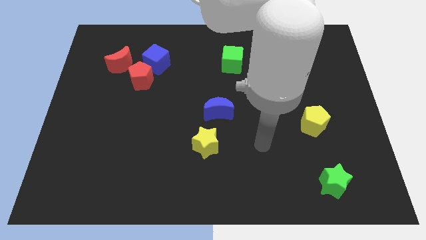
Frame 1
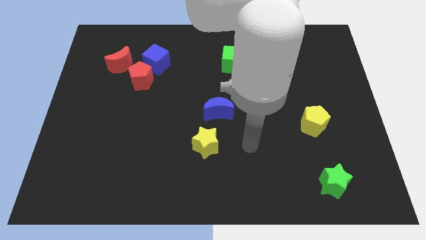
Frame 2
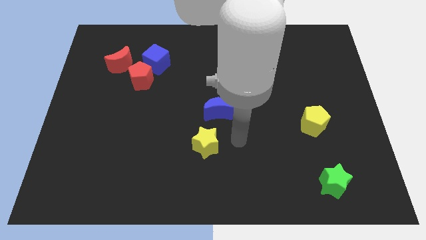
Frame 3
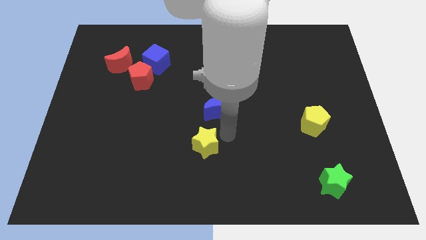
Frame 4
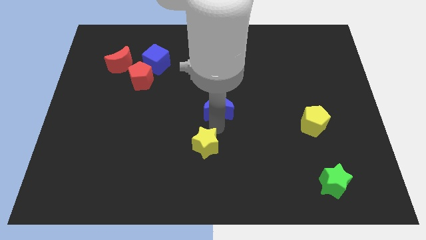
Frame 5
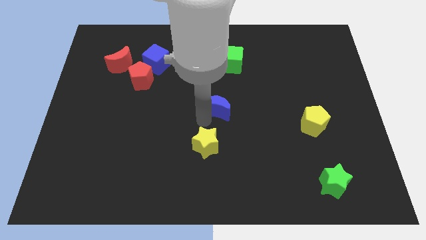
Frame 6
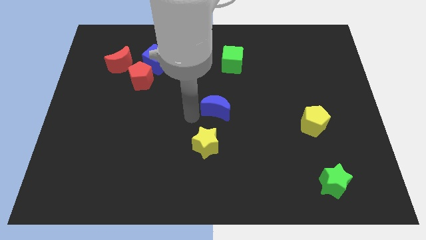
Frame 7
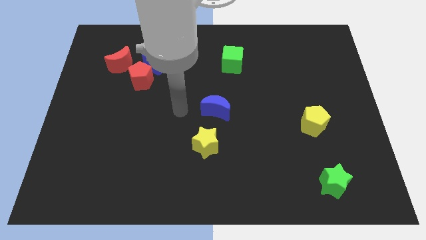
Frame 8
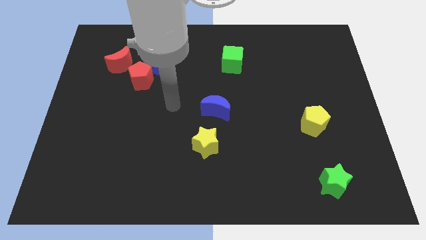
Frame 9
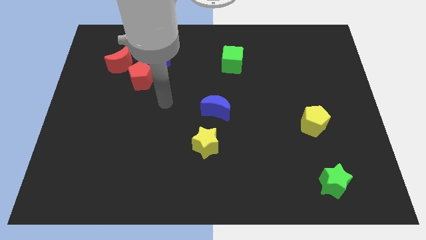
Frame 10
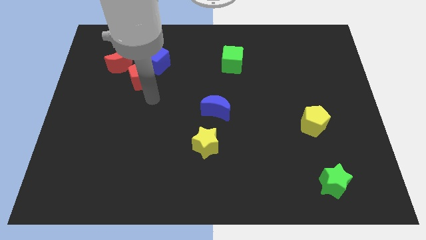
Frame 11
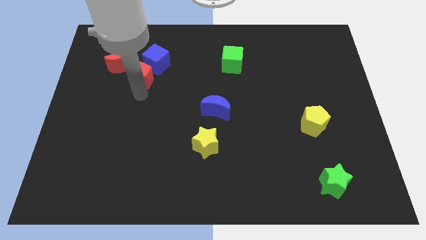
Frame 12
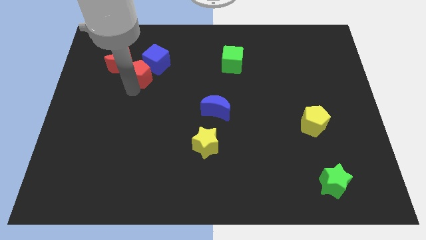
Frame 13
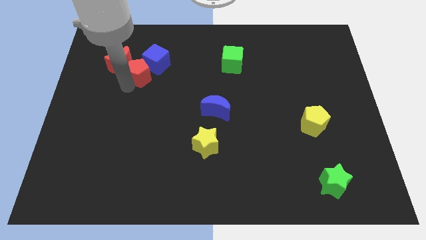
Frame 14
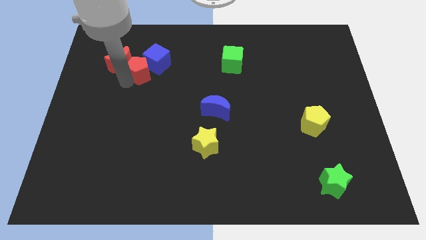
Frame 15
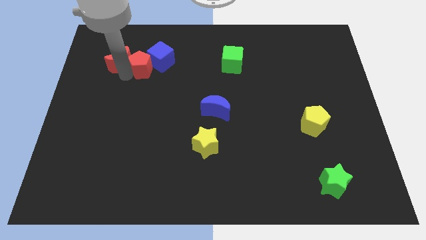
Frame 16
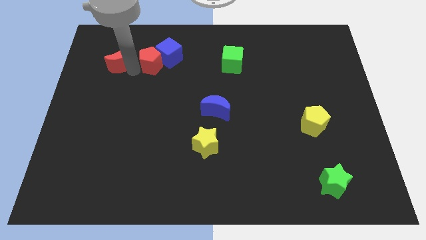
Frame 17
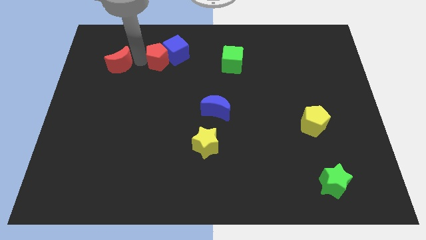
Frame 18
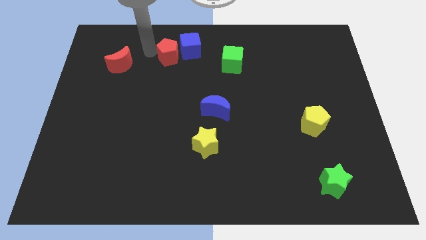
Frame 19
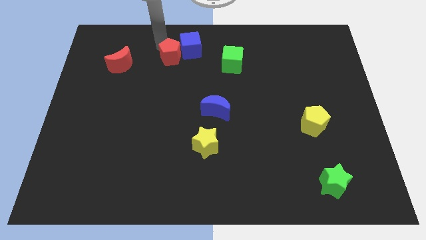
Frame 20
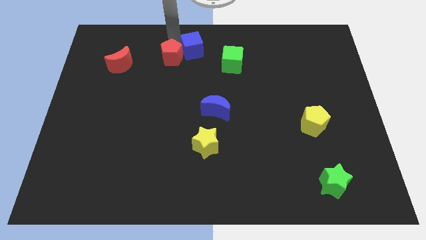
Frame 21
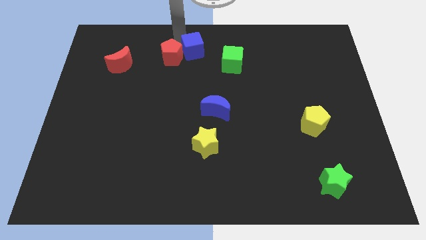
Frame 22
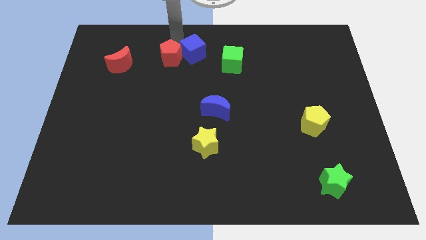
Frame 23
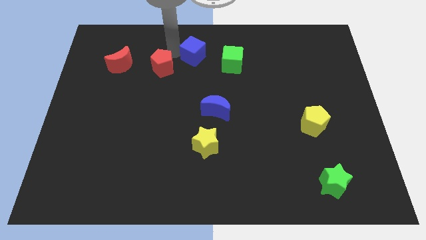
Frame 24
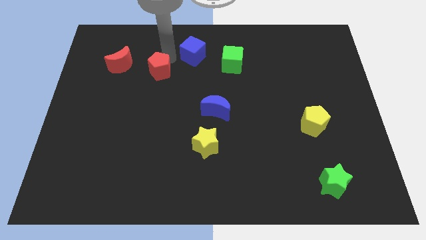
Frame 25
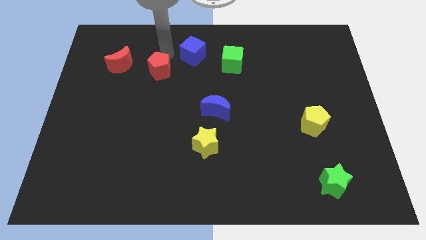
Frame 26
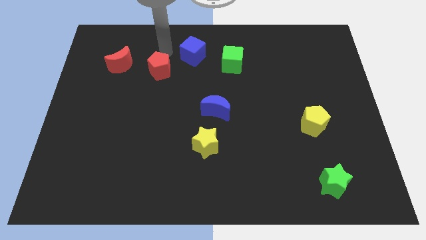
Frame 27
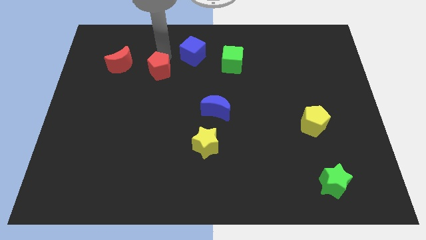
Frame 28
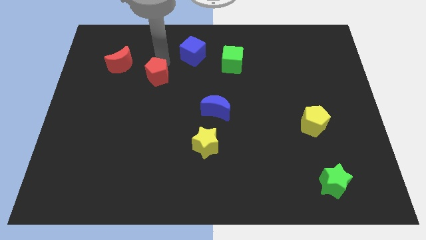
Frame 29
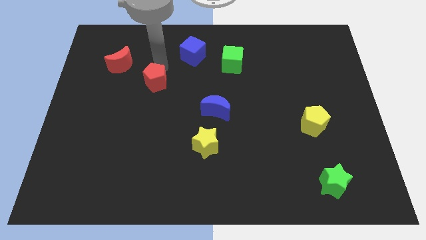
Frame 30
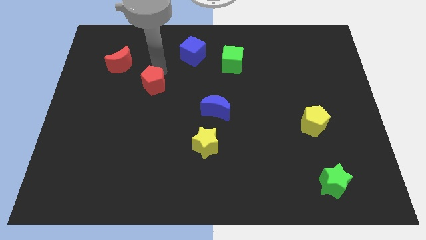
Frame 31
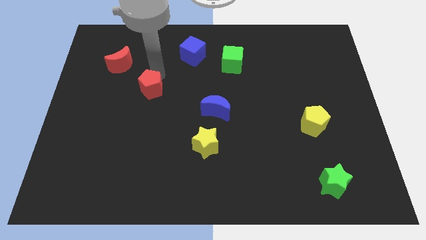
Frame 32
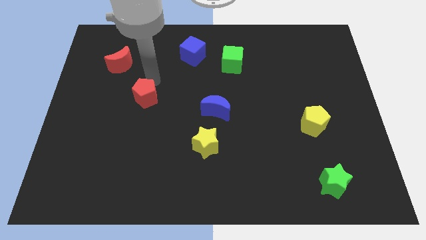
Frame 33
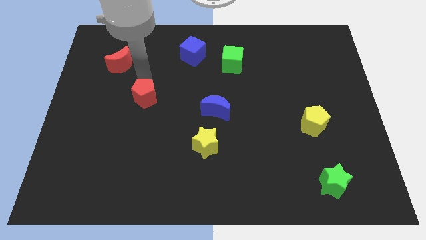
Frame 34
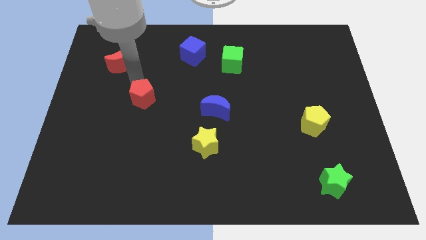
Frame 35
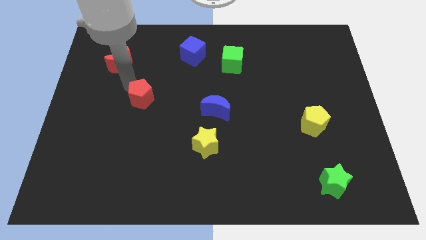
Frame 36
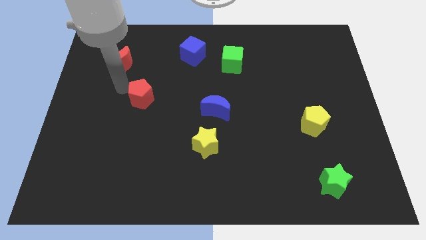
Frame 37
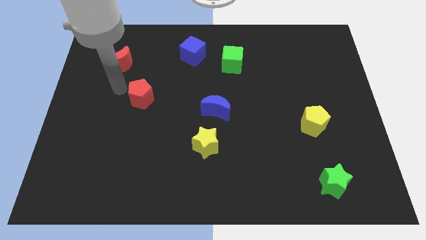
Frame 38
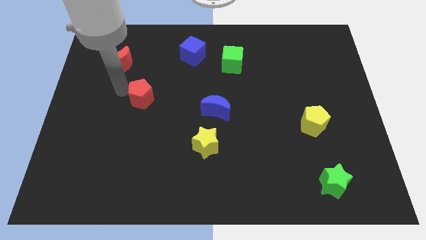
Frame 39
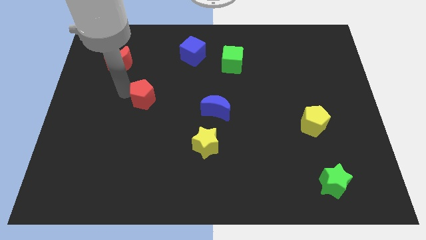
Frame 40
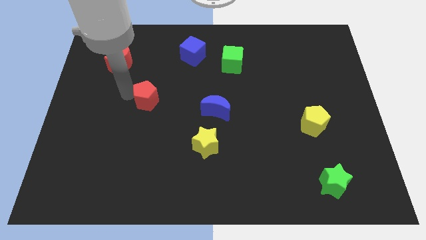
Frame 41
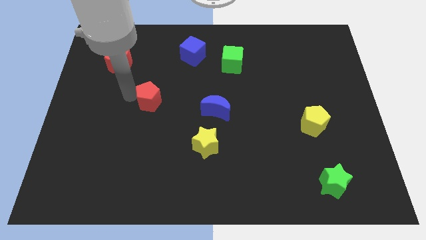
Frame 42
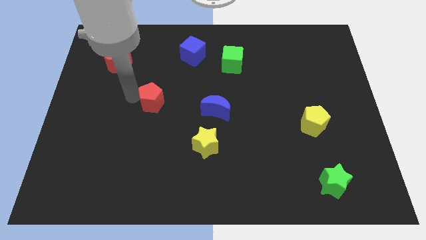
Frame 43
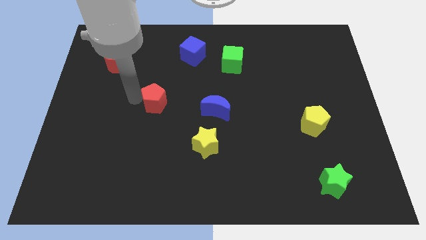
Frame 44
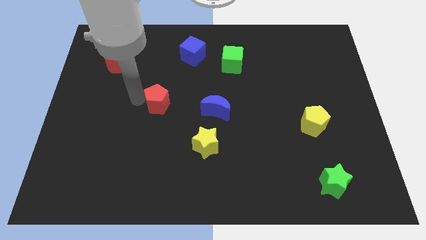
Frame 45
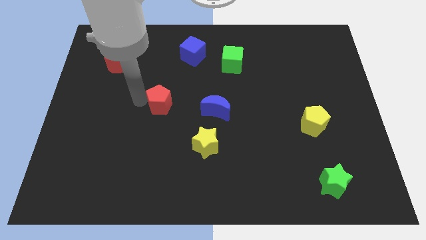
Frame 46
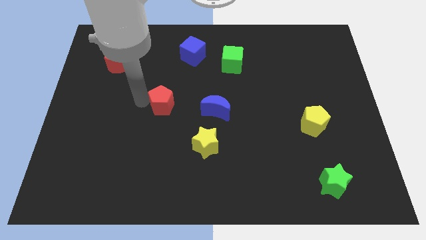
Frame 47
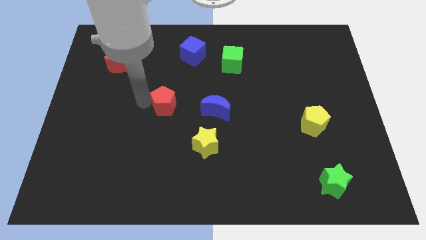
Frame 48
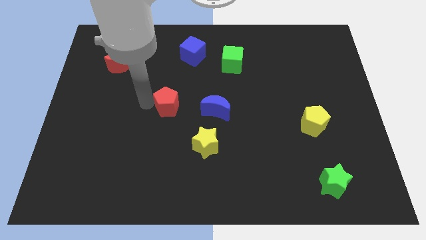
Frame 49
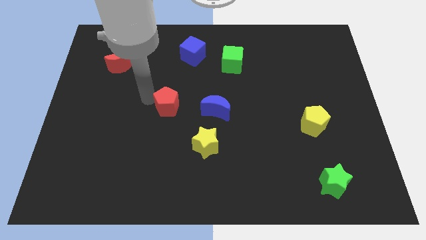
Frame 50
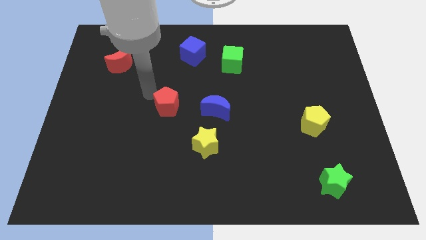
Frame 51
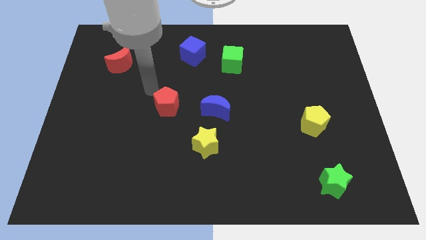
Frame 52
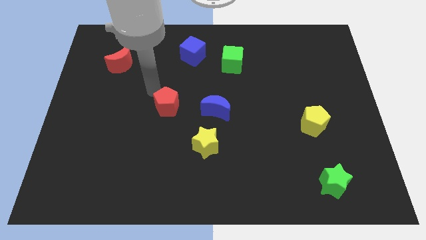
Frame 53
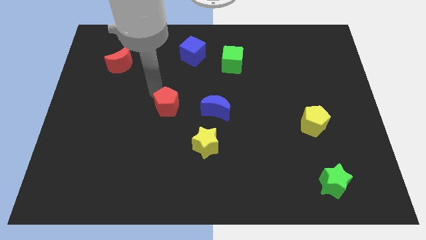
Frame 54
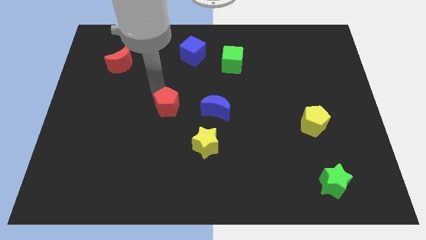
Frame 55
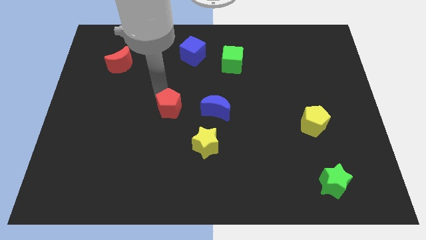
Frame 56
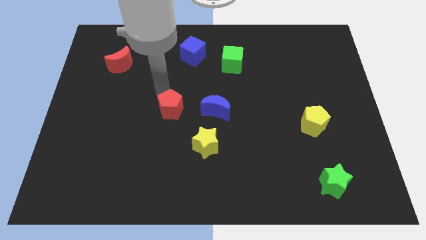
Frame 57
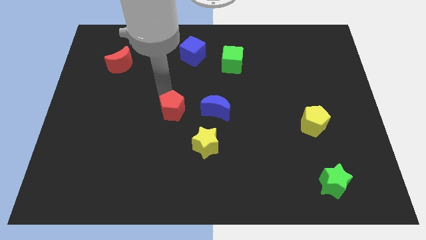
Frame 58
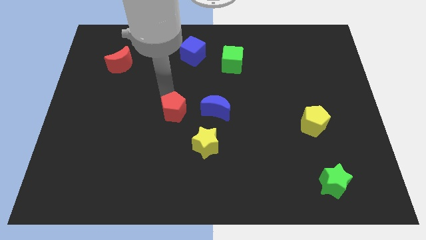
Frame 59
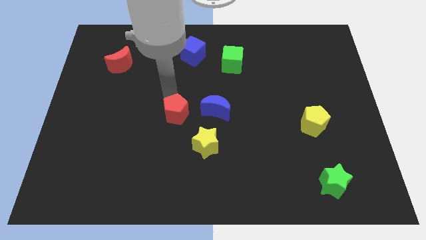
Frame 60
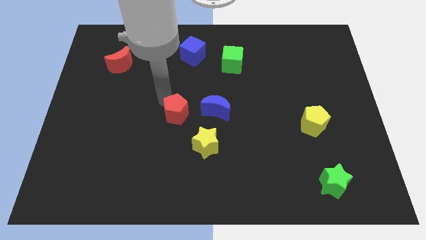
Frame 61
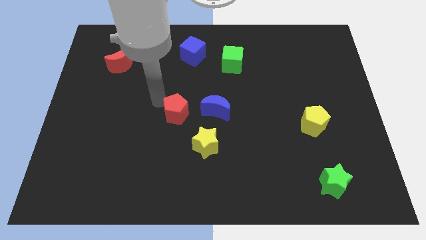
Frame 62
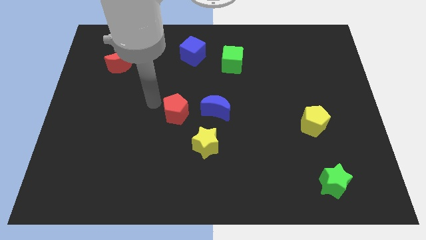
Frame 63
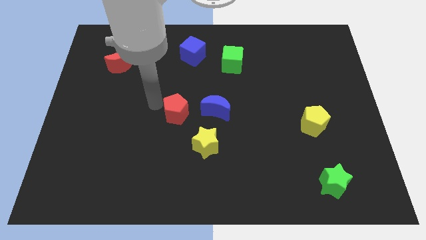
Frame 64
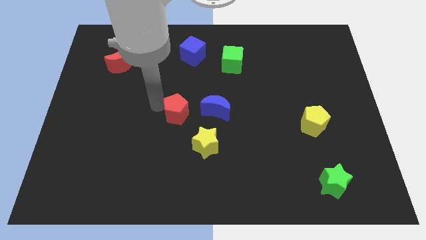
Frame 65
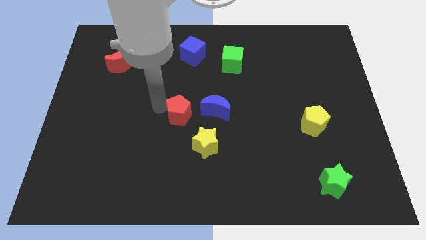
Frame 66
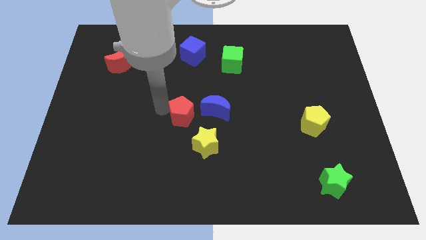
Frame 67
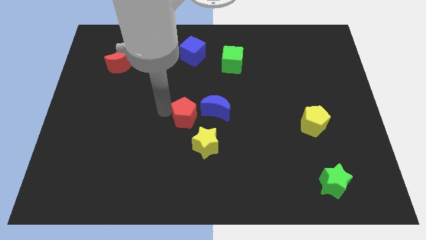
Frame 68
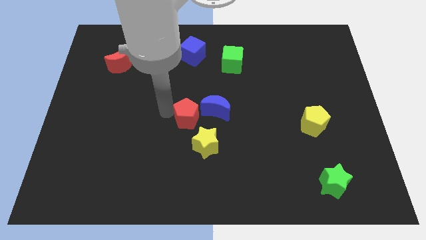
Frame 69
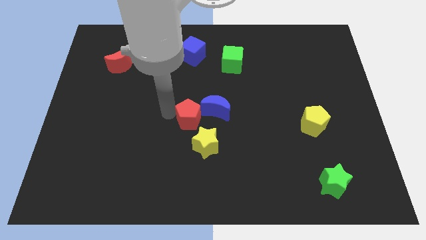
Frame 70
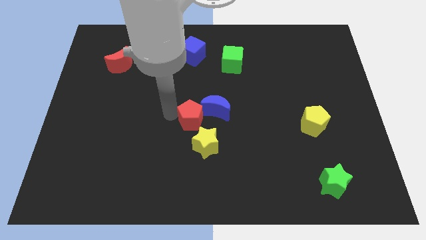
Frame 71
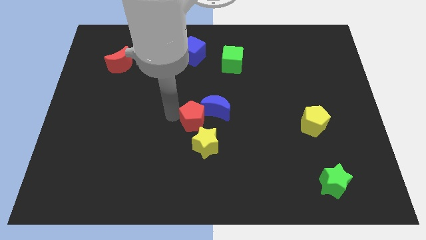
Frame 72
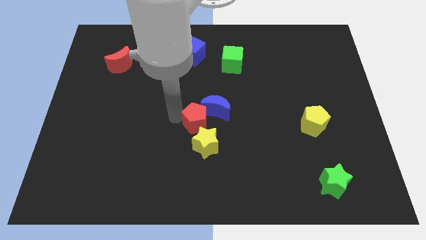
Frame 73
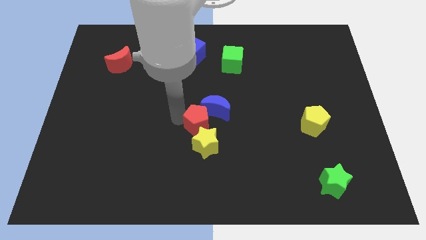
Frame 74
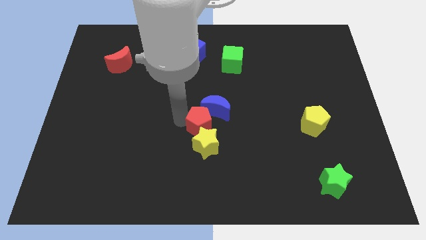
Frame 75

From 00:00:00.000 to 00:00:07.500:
move the red pentagon diagonally up and to the right of the yellow star

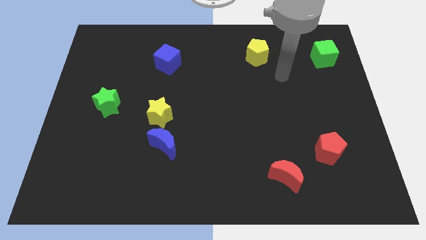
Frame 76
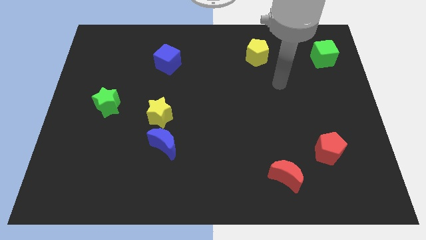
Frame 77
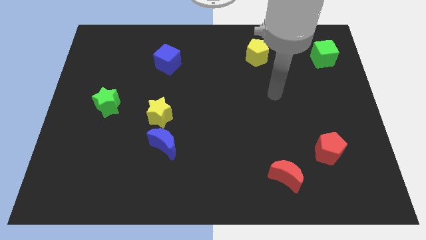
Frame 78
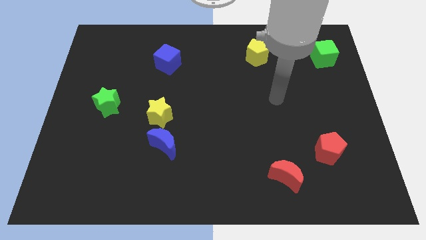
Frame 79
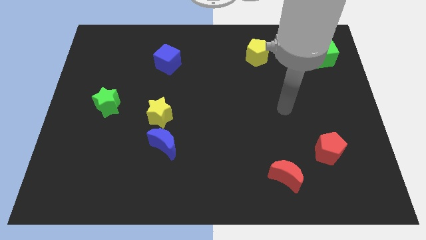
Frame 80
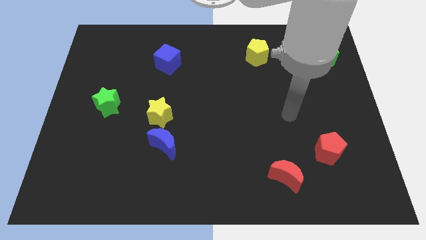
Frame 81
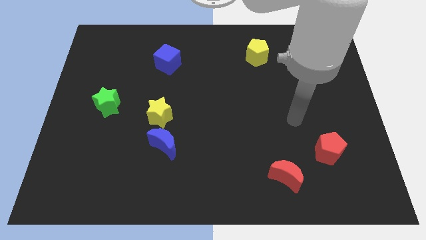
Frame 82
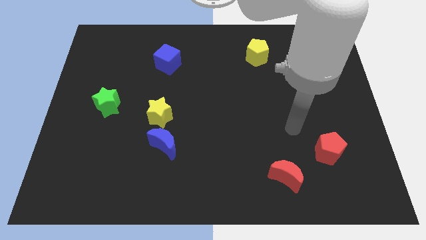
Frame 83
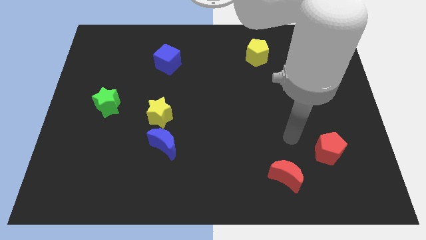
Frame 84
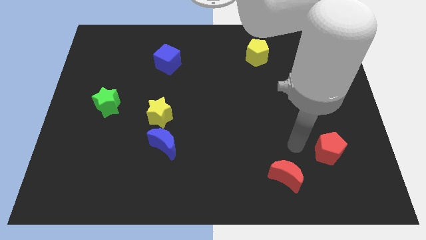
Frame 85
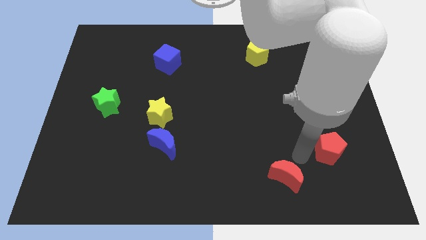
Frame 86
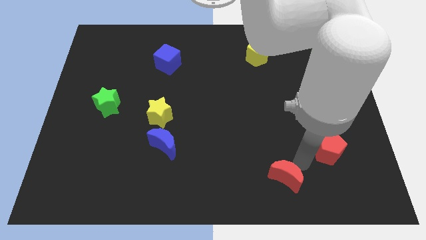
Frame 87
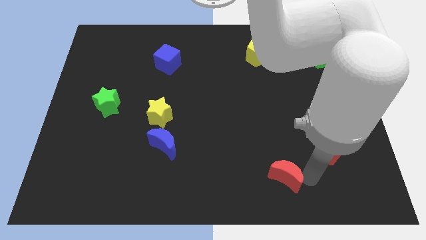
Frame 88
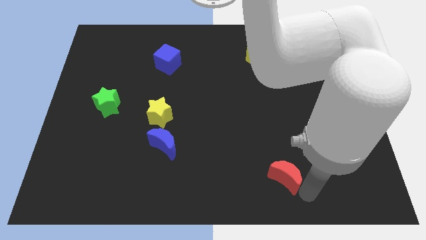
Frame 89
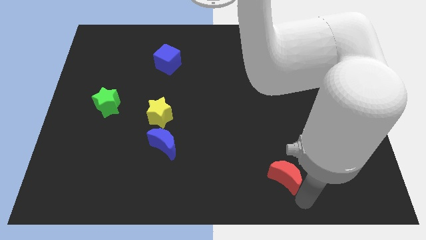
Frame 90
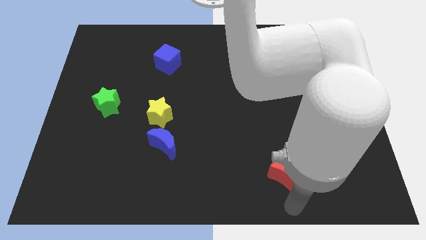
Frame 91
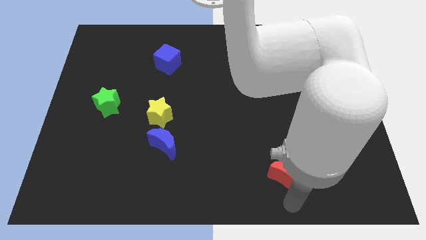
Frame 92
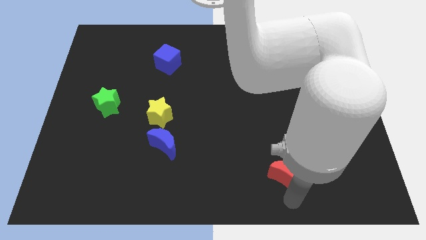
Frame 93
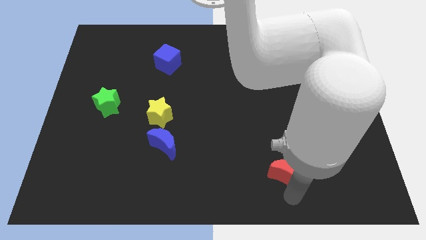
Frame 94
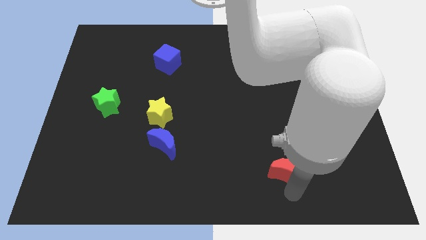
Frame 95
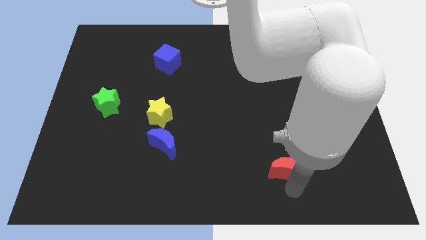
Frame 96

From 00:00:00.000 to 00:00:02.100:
put the red moon left of the red pentagon
